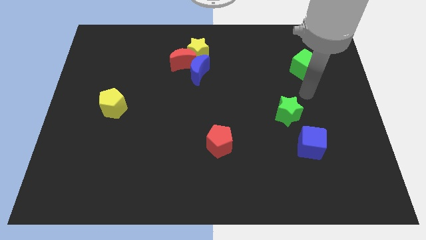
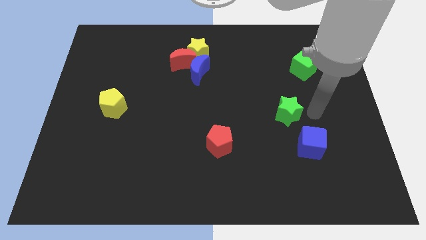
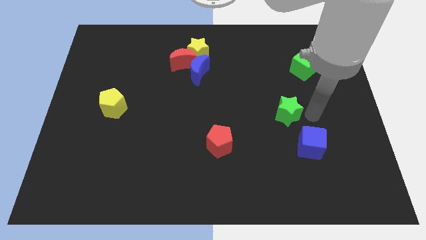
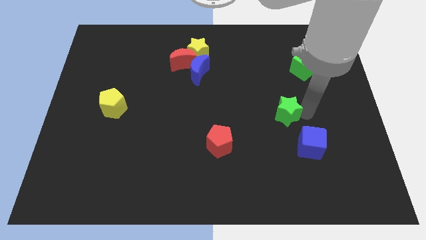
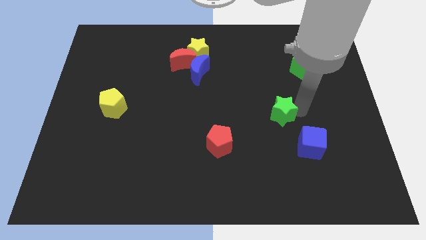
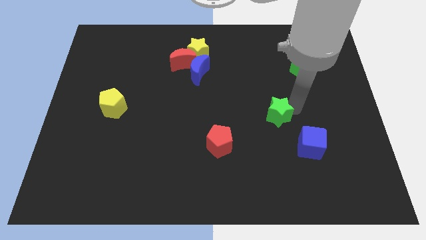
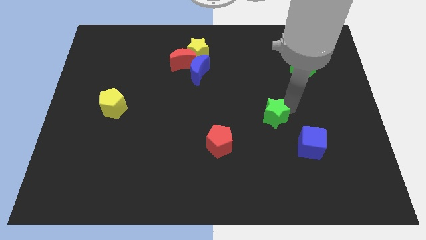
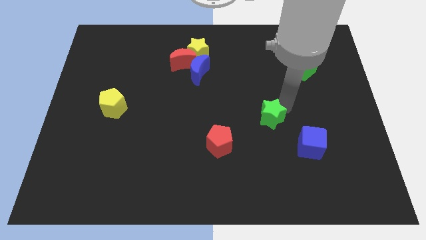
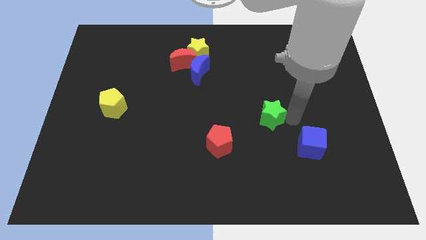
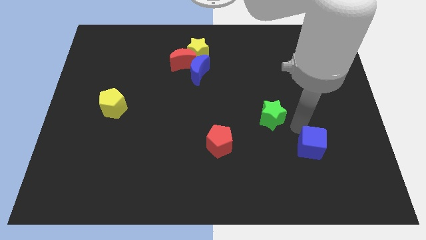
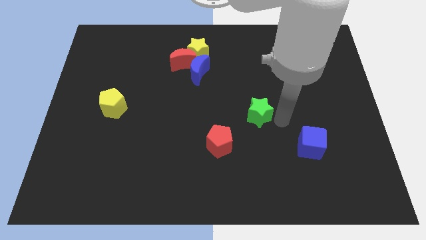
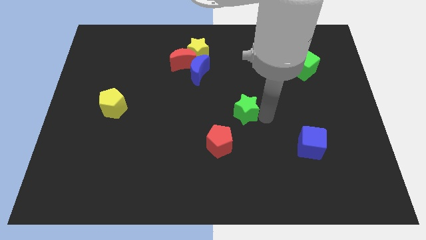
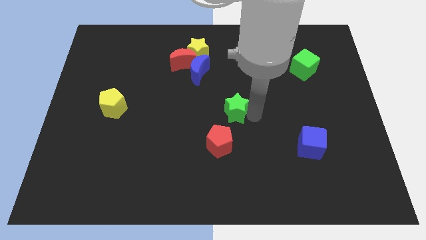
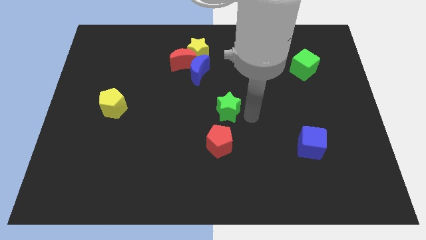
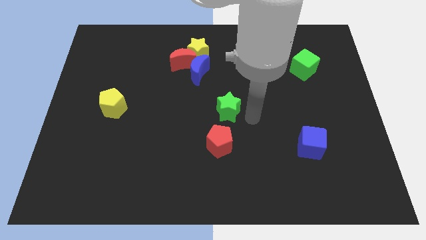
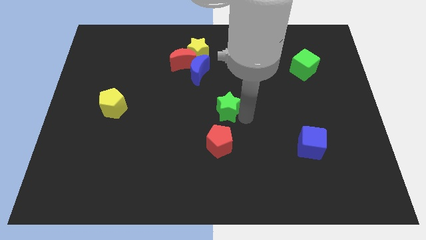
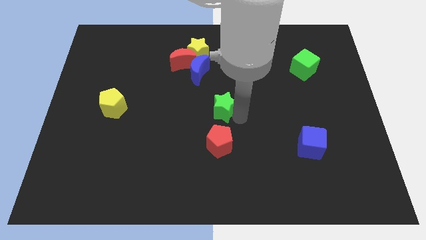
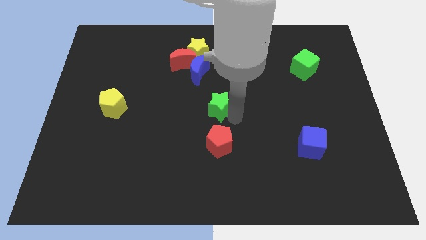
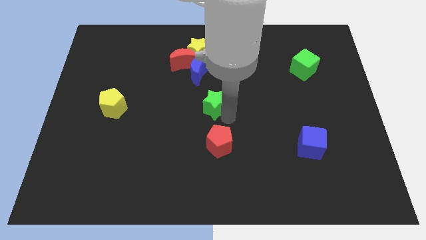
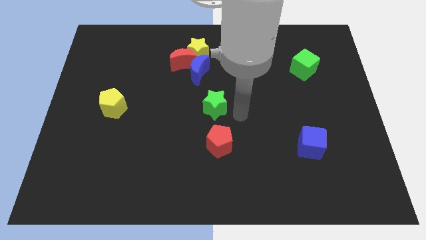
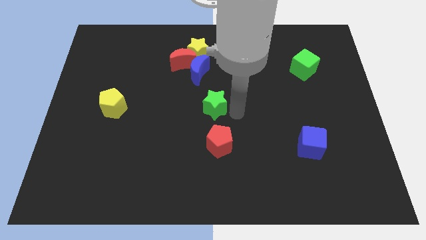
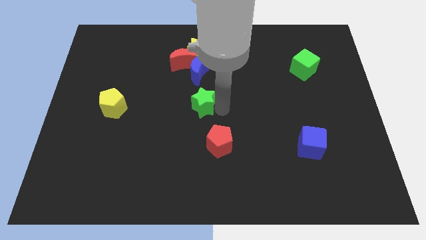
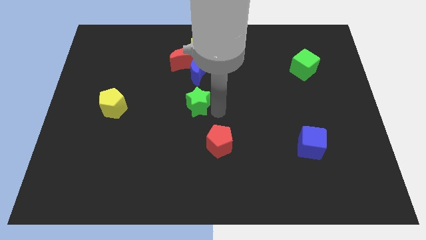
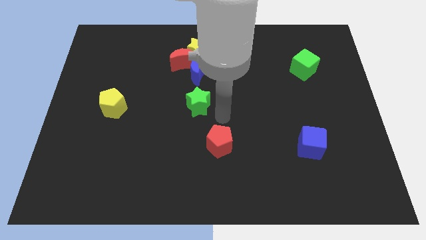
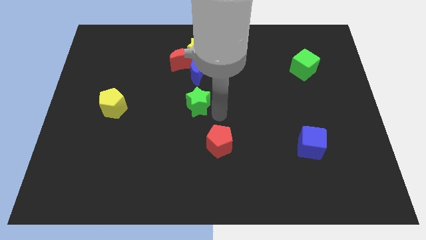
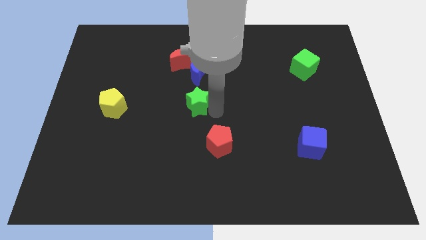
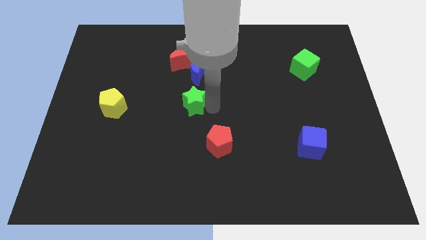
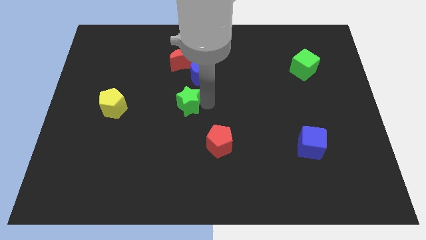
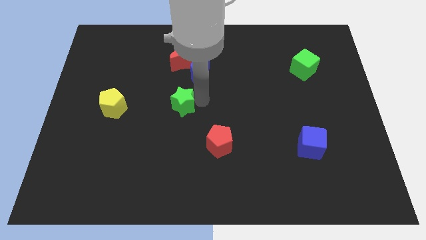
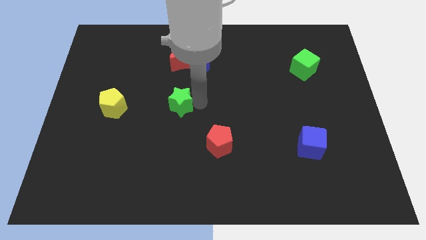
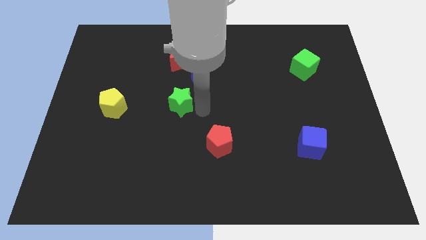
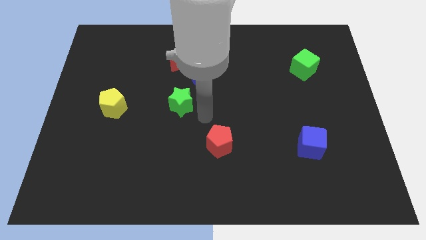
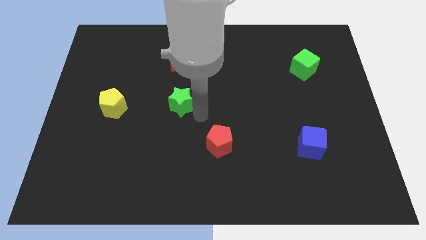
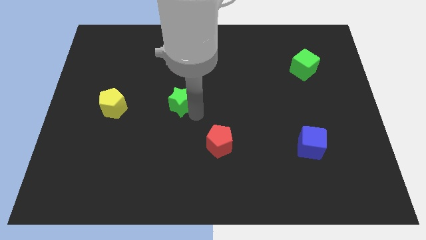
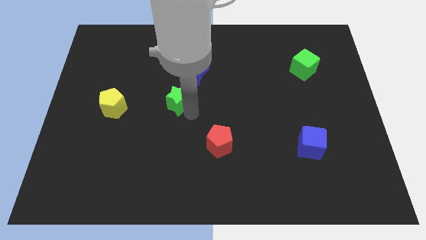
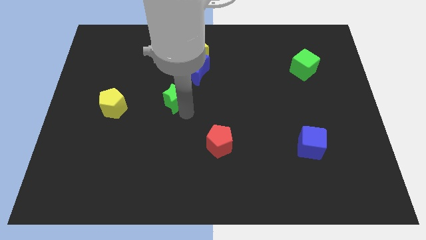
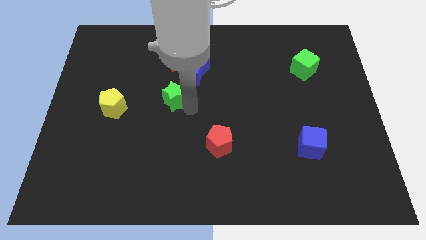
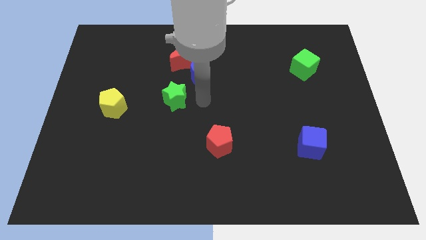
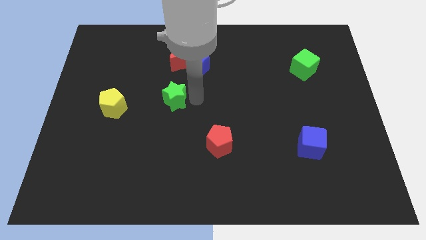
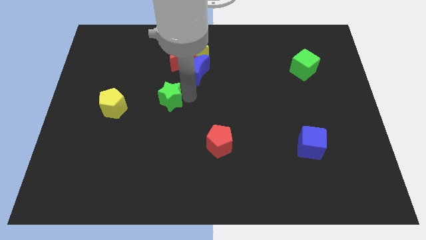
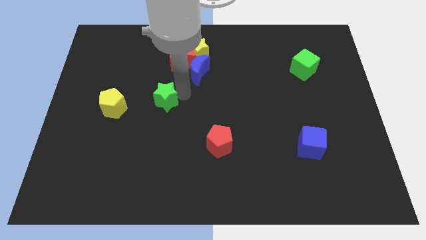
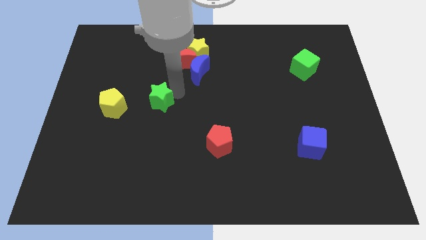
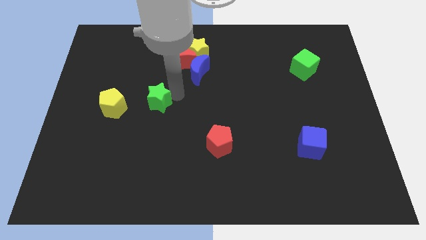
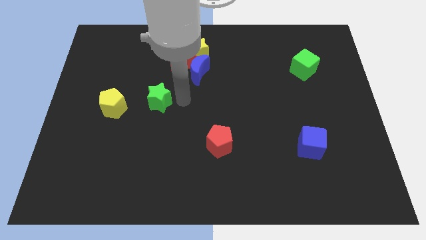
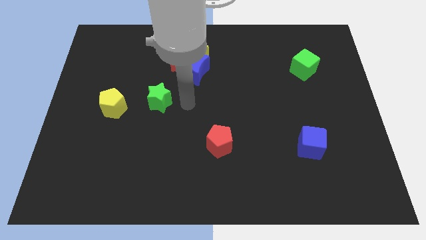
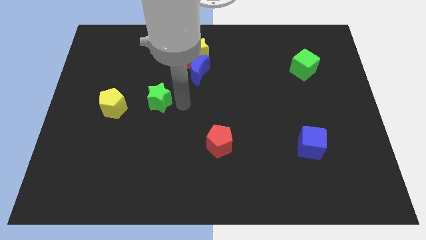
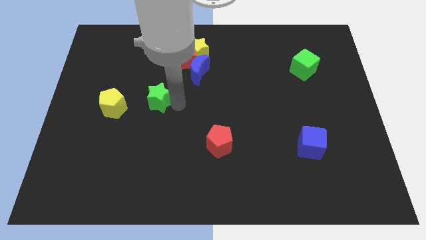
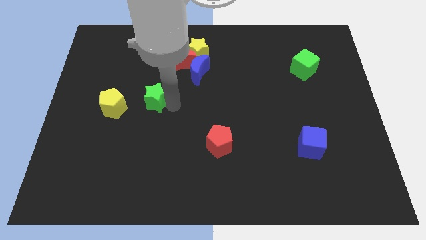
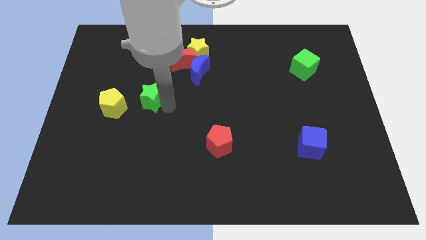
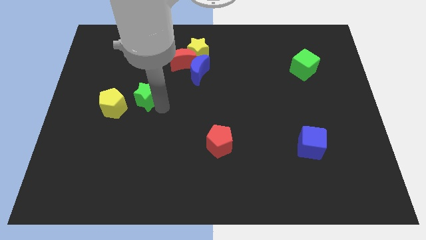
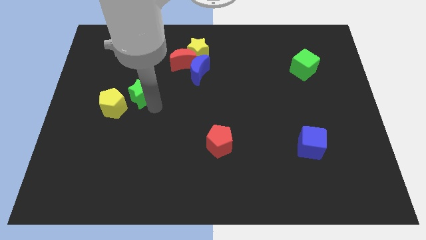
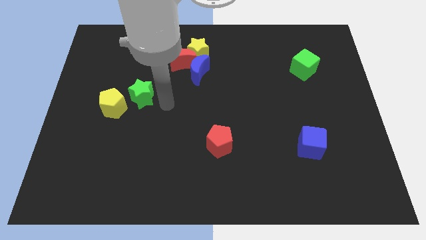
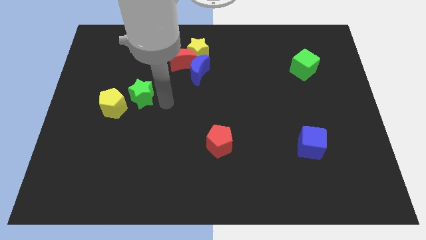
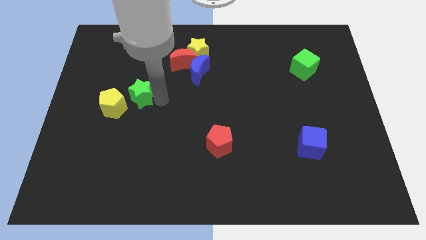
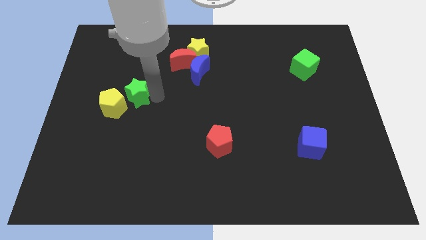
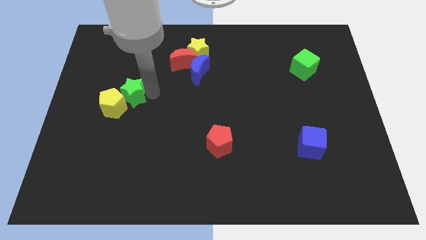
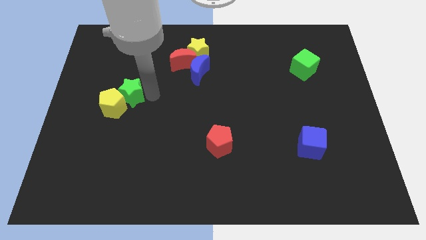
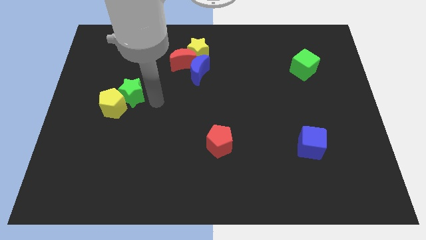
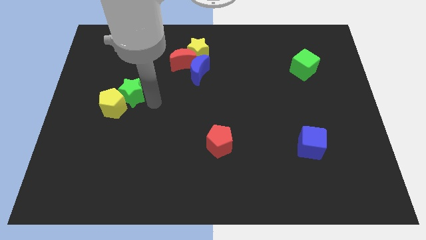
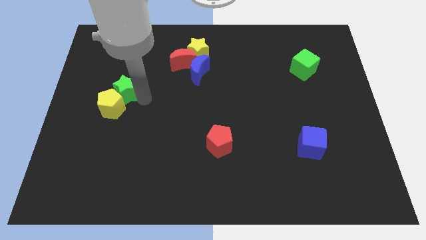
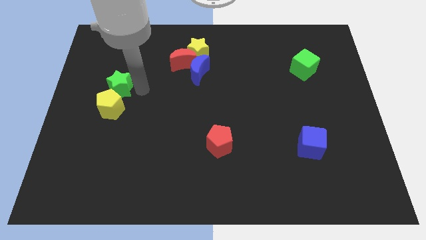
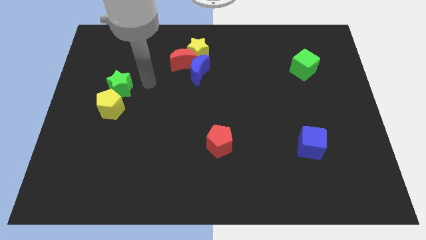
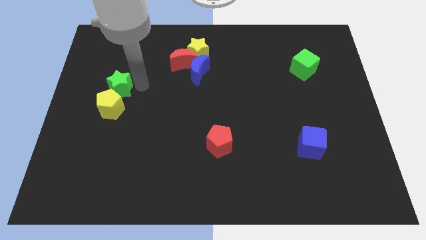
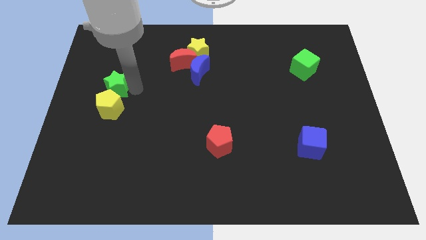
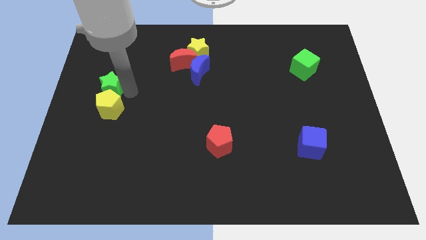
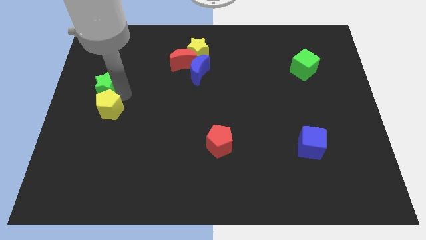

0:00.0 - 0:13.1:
slide the green star to the left side
